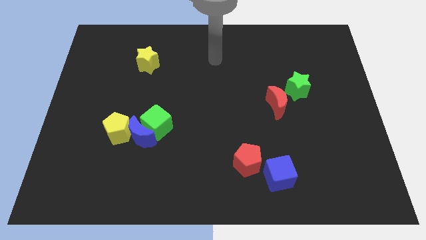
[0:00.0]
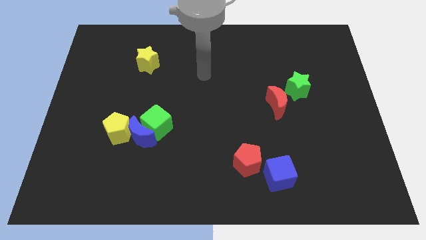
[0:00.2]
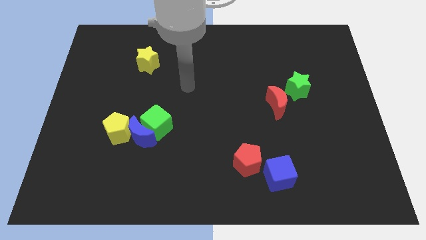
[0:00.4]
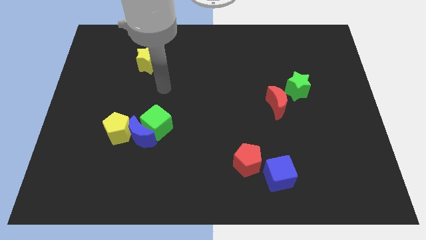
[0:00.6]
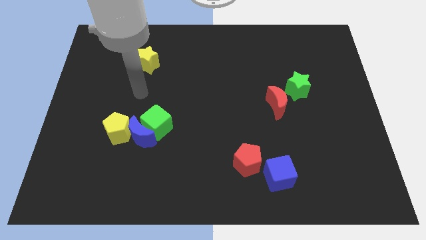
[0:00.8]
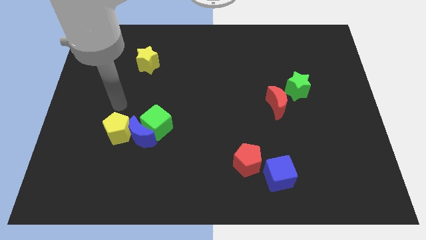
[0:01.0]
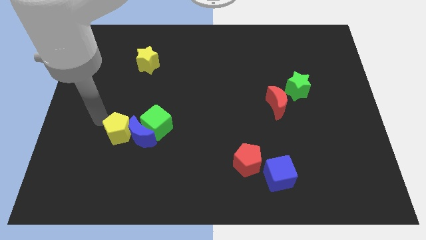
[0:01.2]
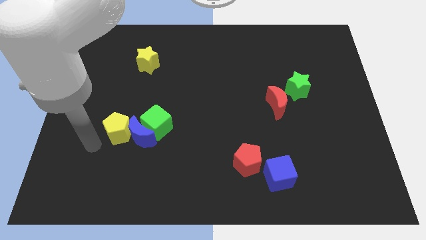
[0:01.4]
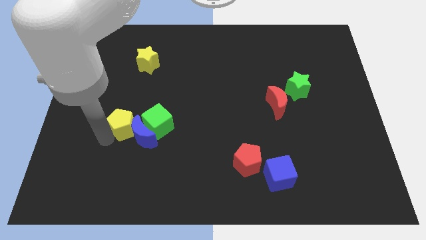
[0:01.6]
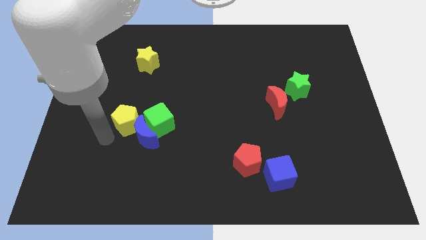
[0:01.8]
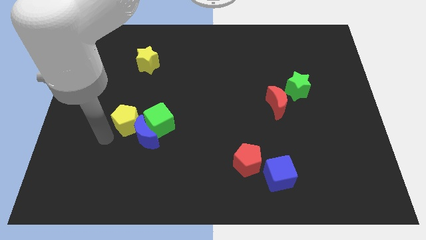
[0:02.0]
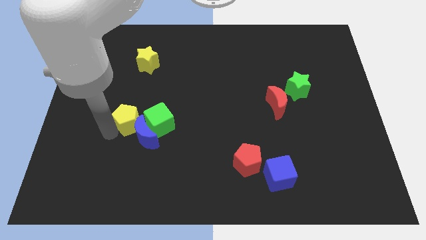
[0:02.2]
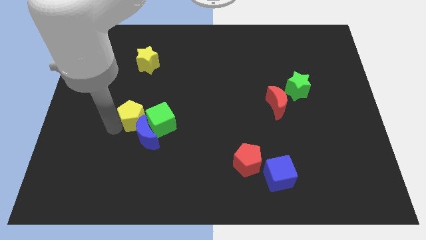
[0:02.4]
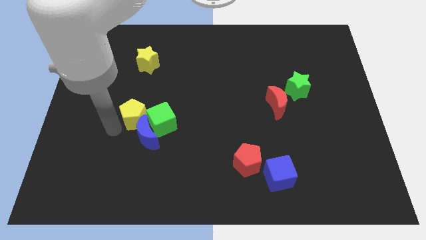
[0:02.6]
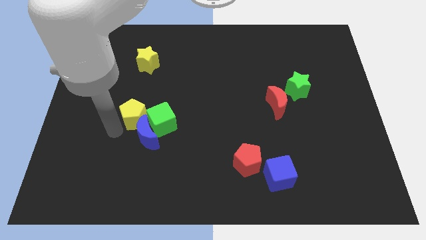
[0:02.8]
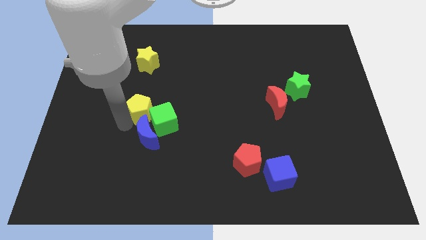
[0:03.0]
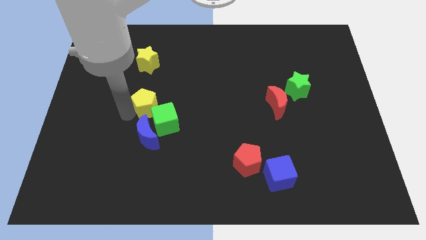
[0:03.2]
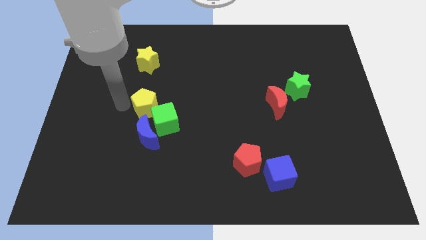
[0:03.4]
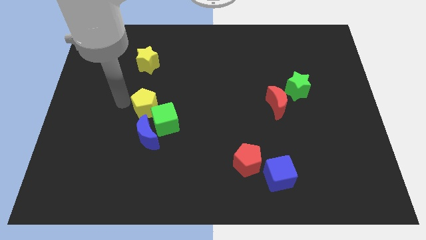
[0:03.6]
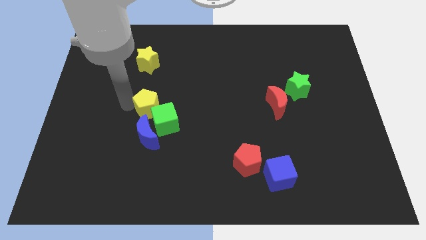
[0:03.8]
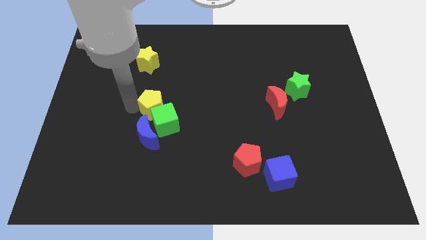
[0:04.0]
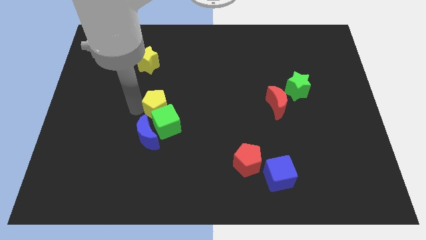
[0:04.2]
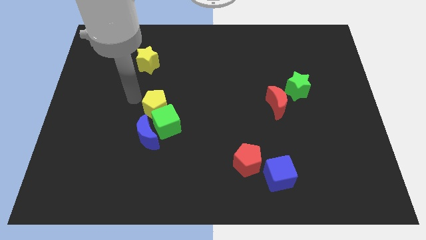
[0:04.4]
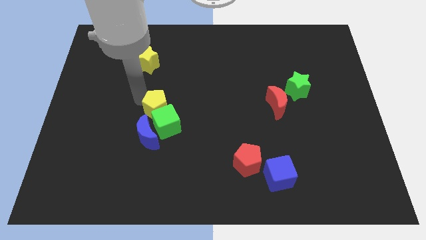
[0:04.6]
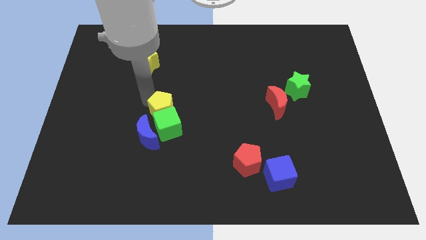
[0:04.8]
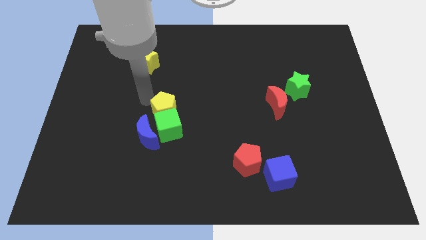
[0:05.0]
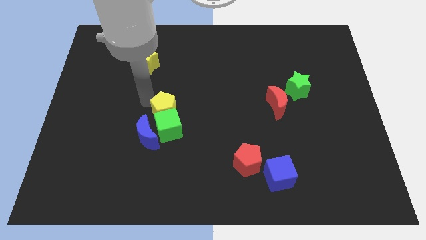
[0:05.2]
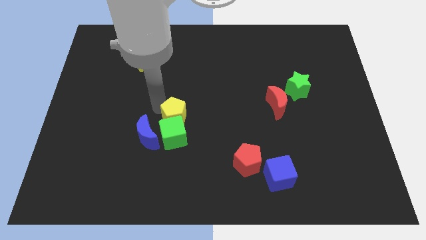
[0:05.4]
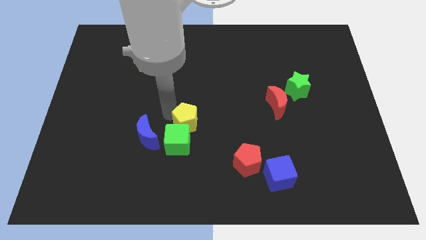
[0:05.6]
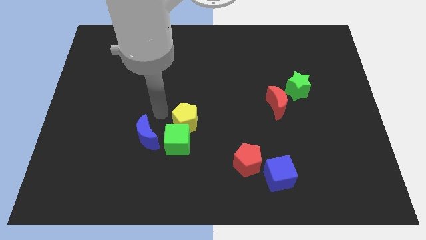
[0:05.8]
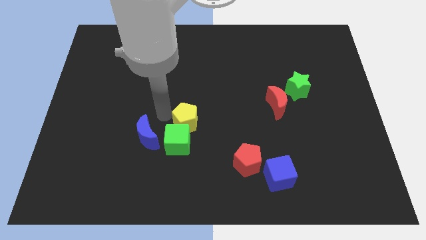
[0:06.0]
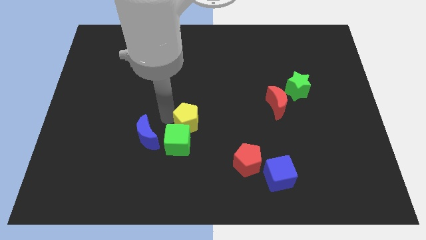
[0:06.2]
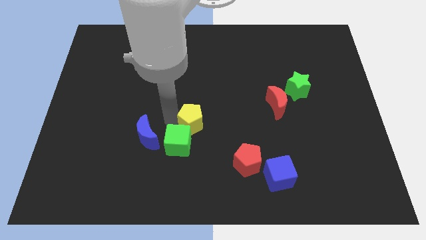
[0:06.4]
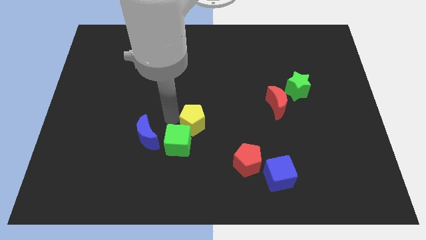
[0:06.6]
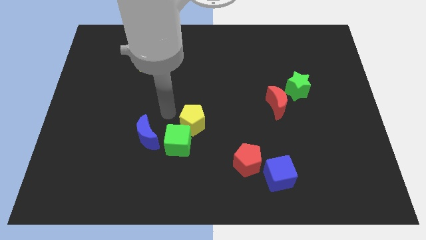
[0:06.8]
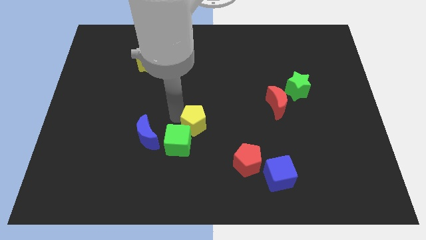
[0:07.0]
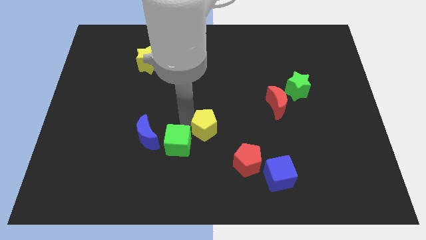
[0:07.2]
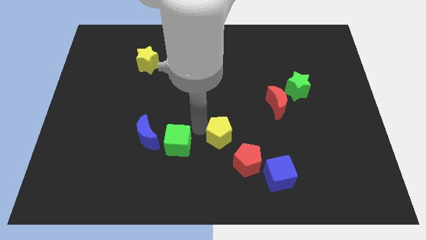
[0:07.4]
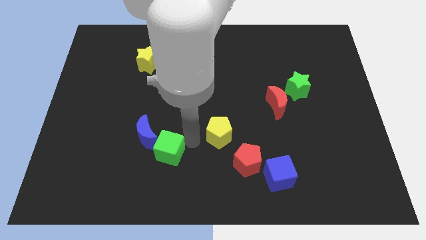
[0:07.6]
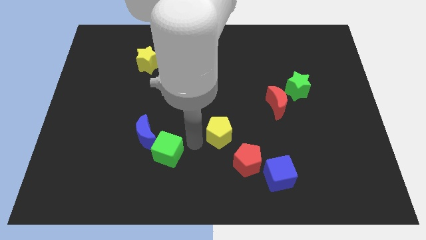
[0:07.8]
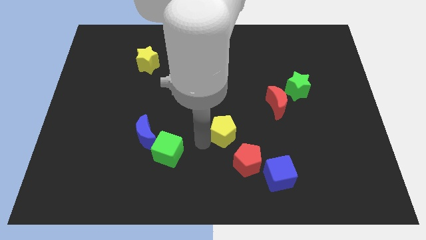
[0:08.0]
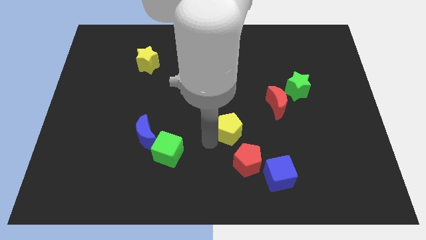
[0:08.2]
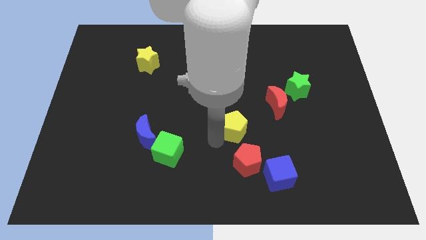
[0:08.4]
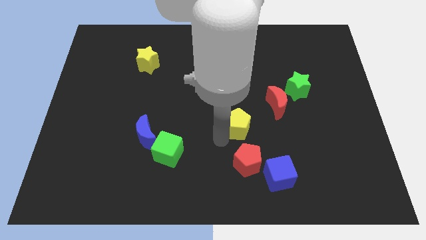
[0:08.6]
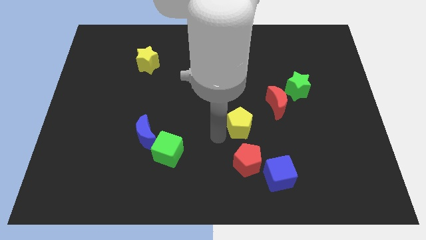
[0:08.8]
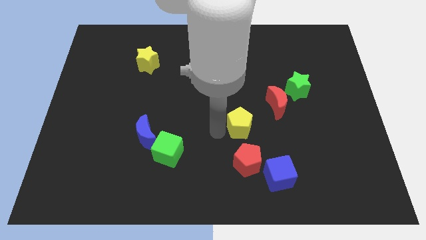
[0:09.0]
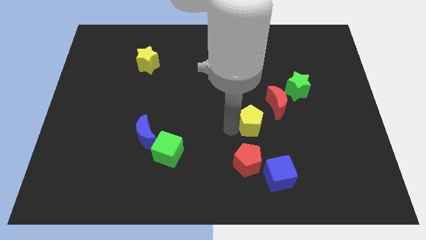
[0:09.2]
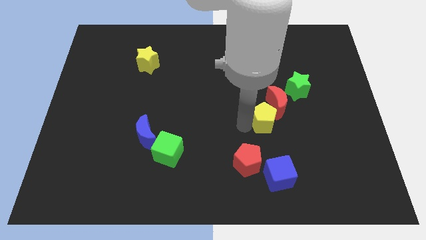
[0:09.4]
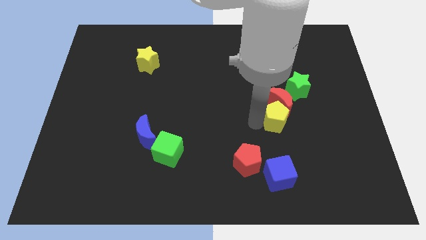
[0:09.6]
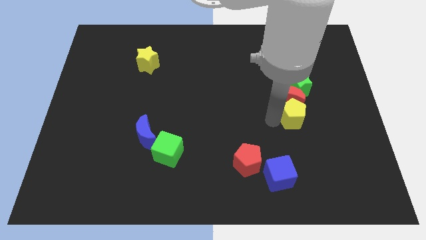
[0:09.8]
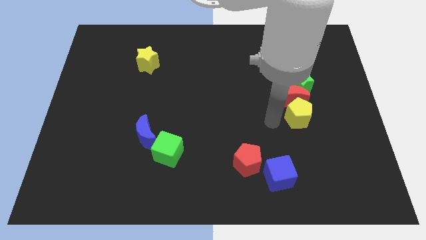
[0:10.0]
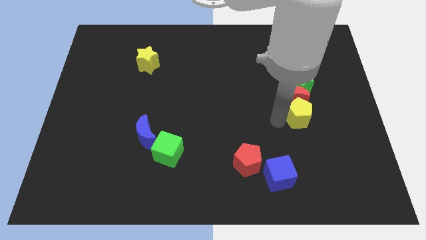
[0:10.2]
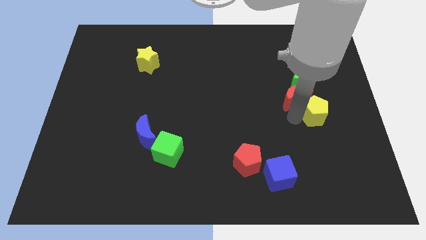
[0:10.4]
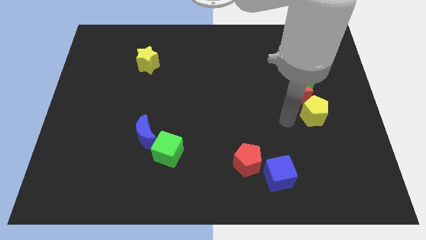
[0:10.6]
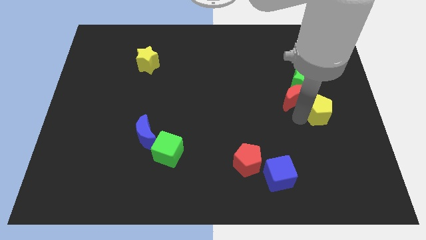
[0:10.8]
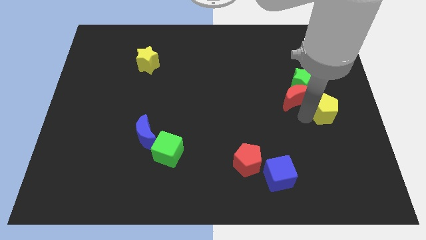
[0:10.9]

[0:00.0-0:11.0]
slide the yellow pentagon to the right side

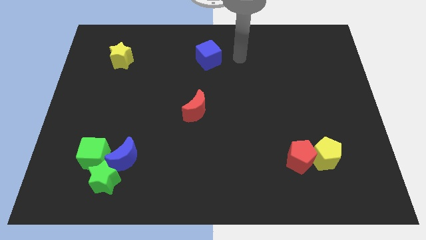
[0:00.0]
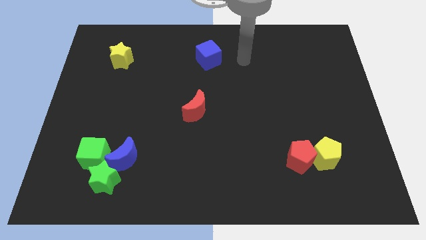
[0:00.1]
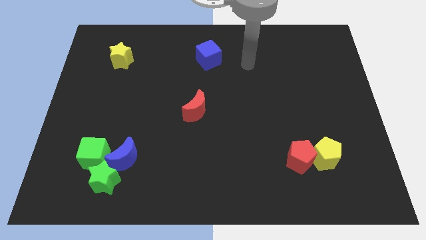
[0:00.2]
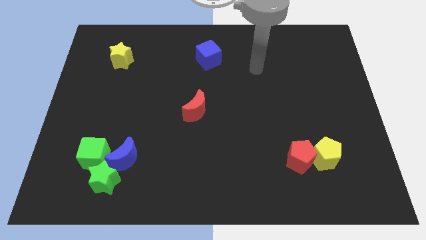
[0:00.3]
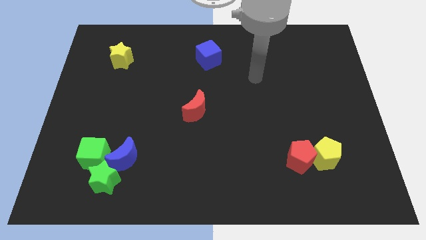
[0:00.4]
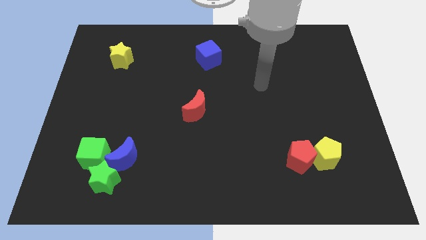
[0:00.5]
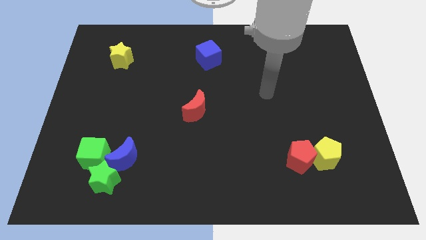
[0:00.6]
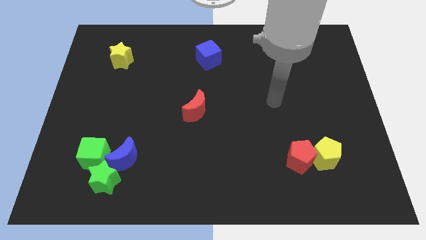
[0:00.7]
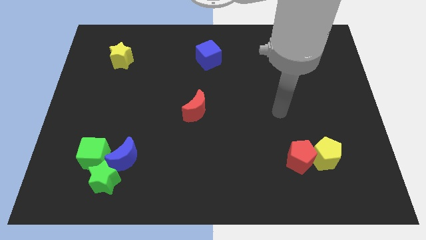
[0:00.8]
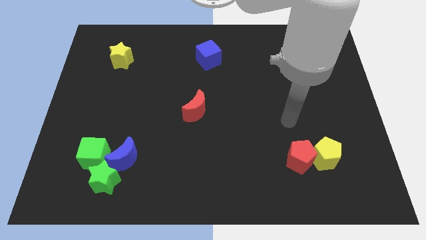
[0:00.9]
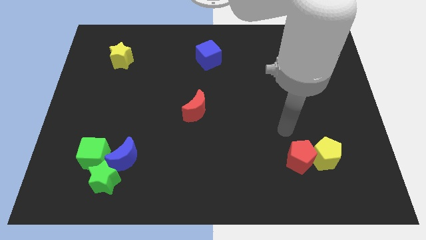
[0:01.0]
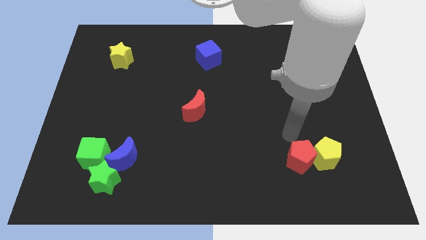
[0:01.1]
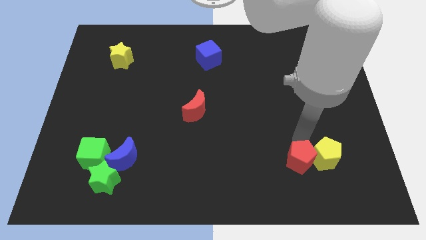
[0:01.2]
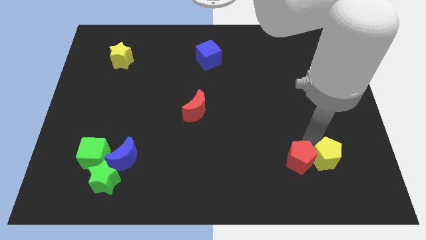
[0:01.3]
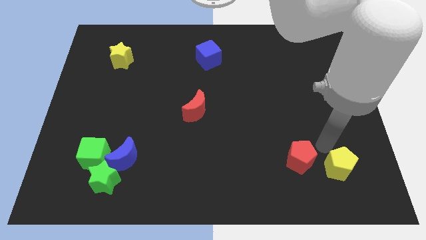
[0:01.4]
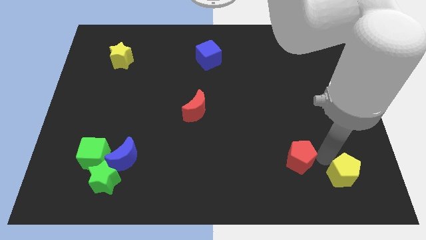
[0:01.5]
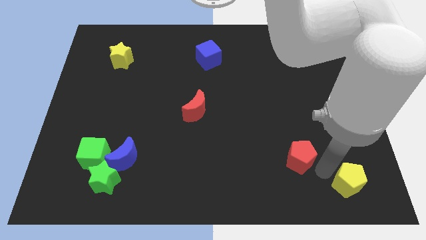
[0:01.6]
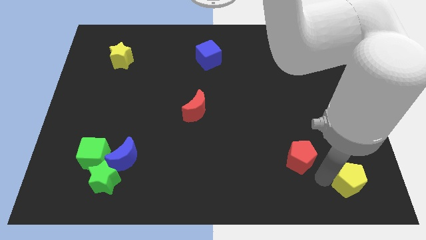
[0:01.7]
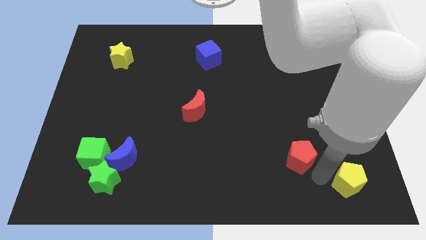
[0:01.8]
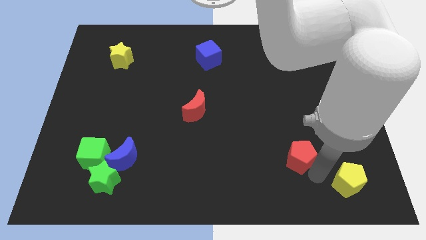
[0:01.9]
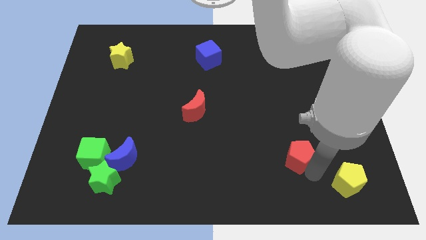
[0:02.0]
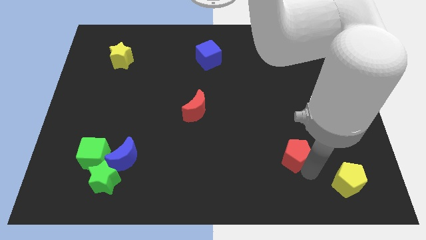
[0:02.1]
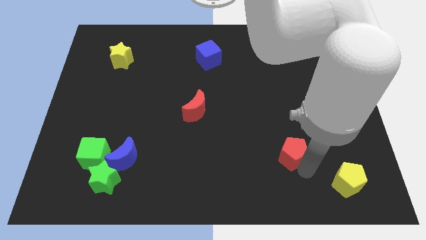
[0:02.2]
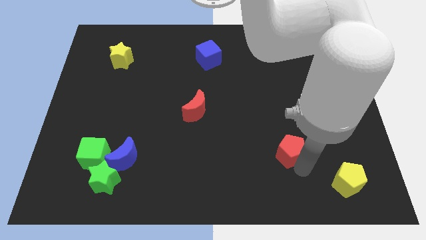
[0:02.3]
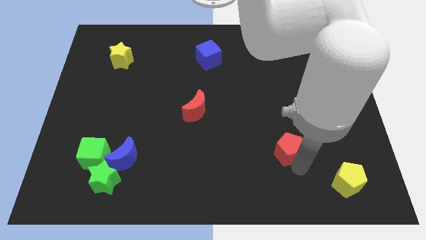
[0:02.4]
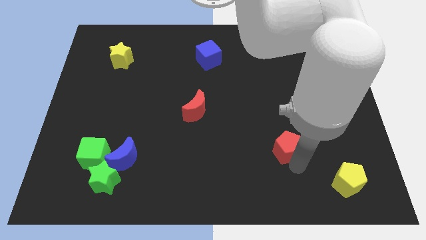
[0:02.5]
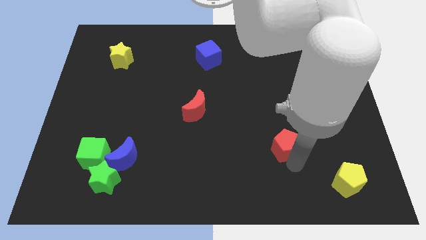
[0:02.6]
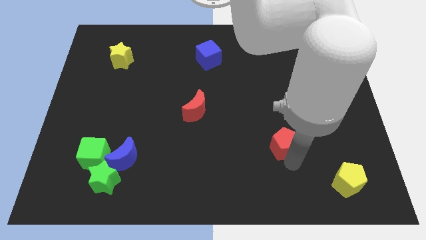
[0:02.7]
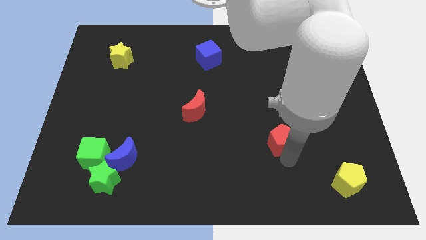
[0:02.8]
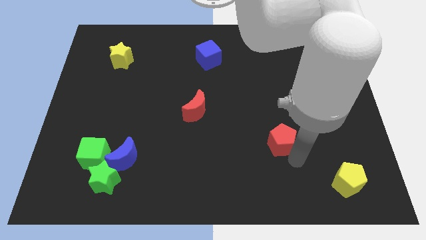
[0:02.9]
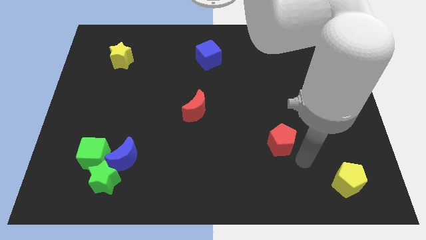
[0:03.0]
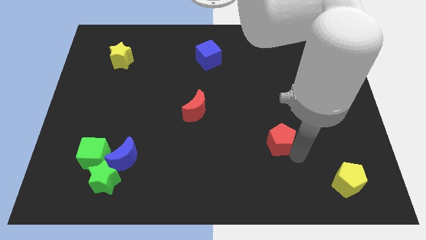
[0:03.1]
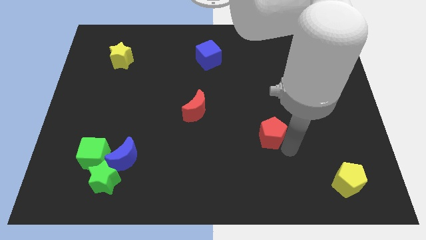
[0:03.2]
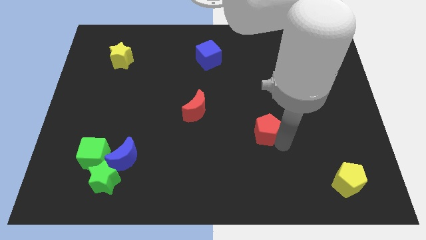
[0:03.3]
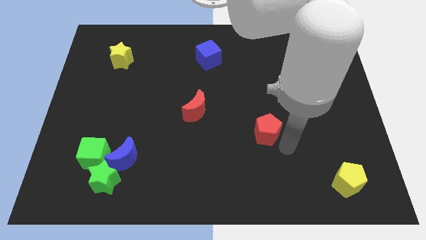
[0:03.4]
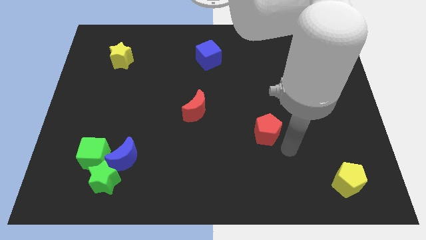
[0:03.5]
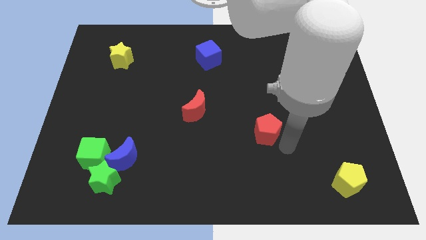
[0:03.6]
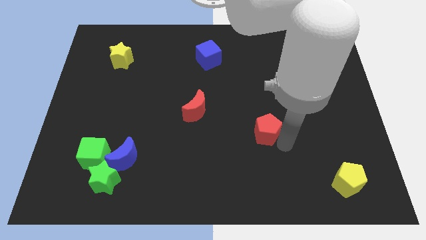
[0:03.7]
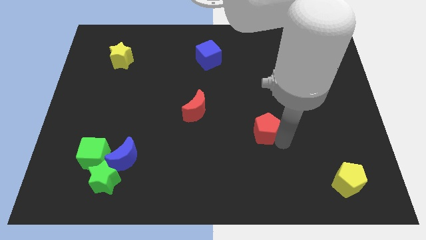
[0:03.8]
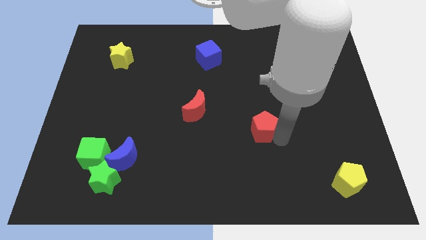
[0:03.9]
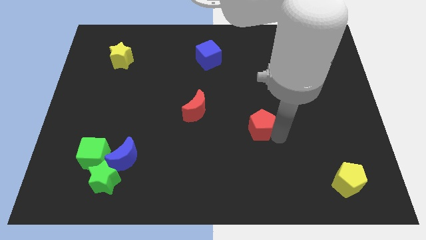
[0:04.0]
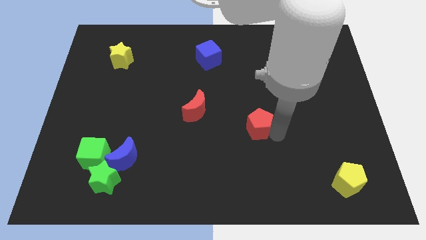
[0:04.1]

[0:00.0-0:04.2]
put the red pentagon to the middle
